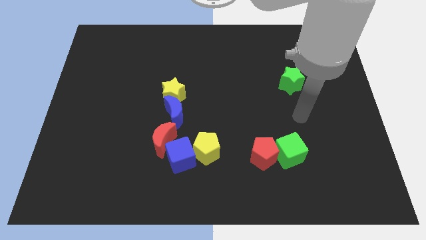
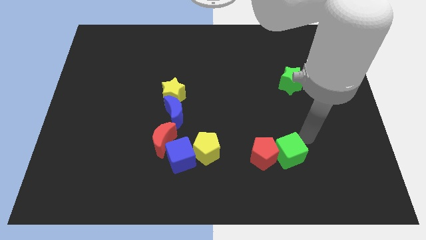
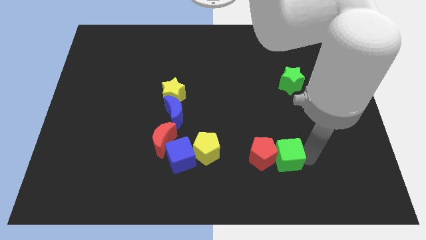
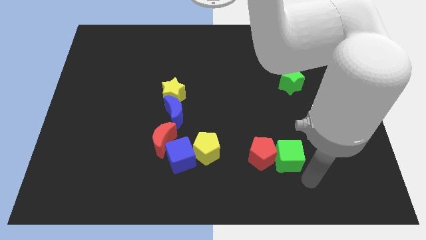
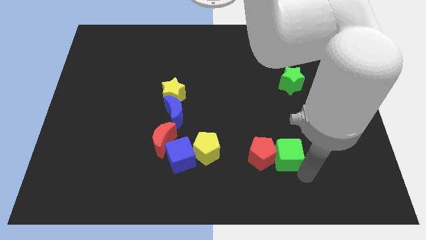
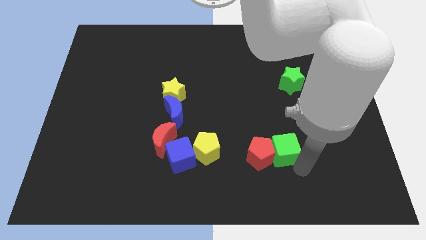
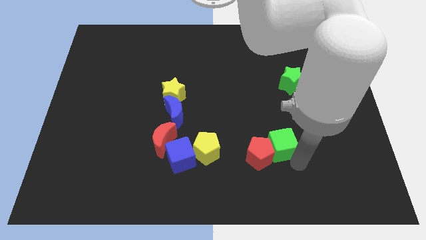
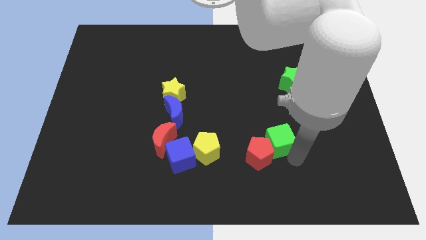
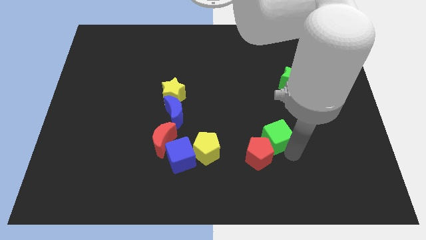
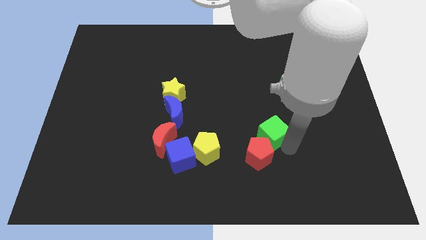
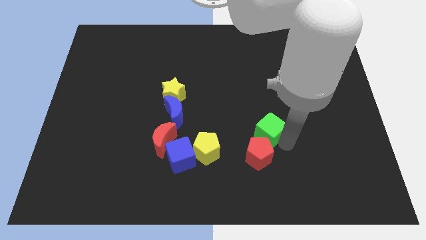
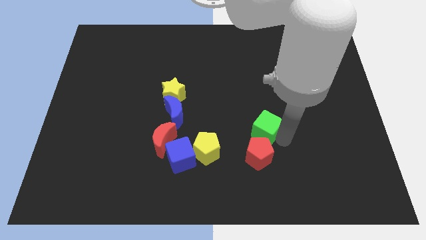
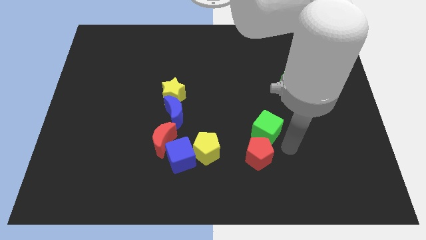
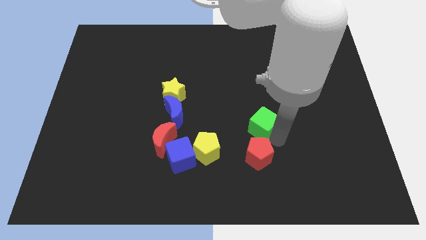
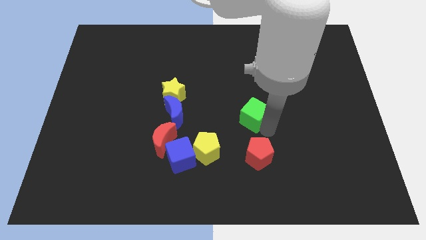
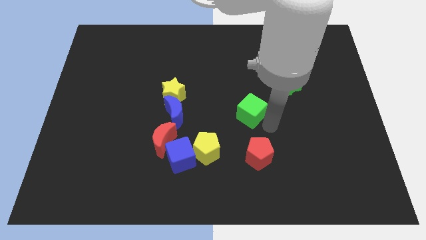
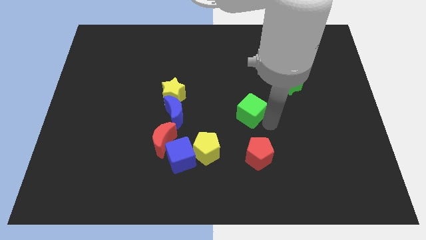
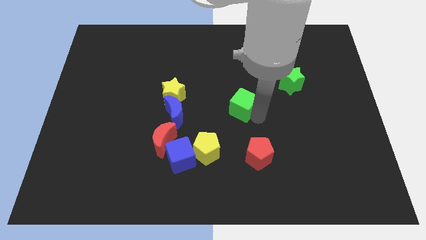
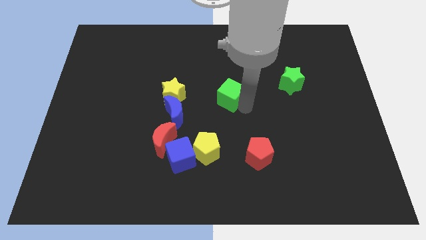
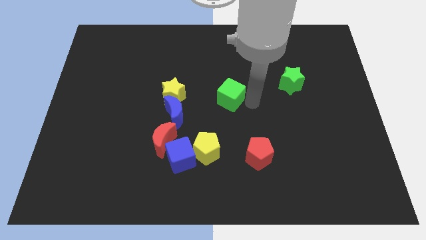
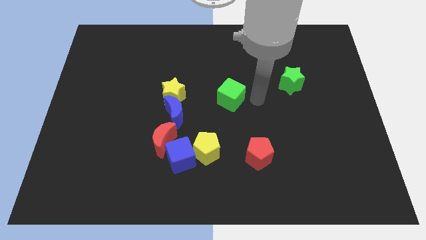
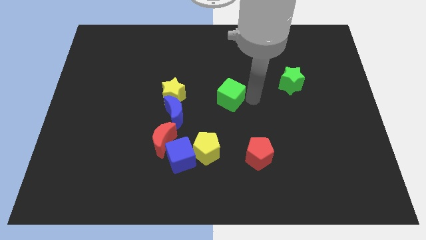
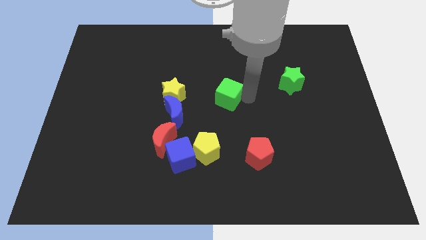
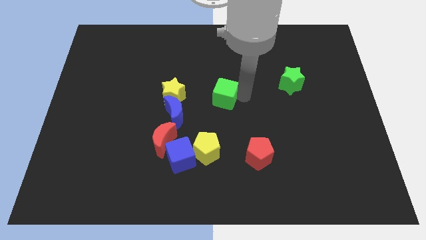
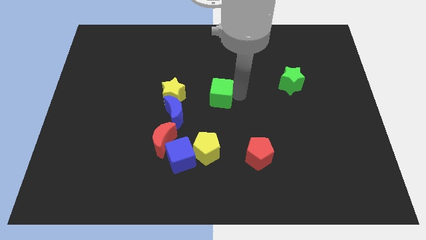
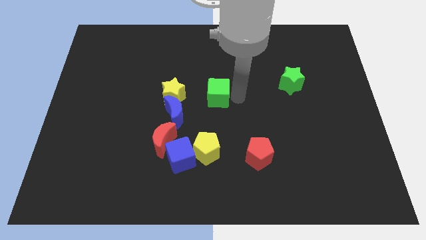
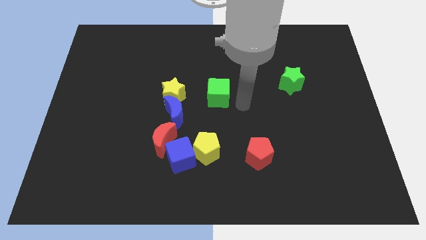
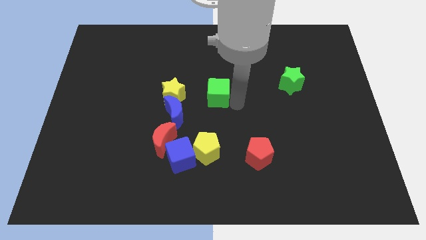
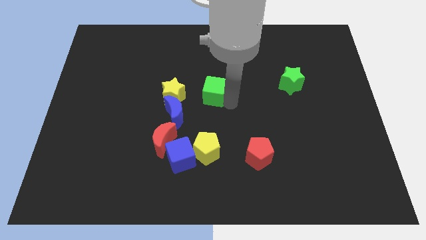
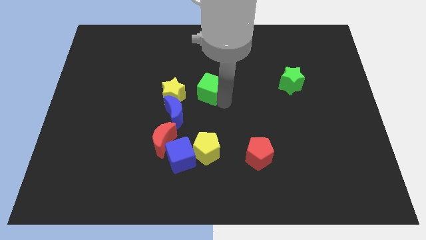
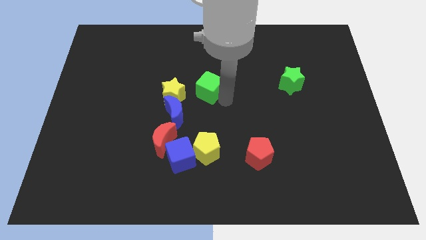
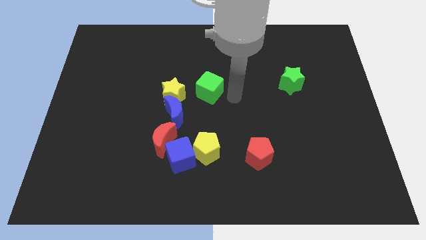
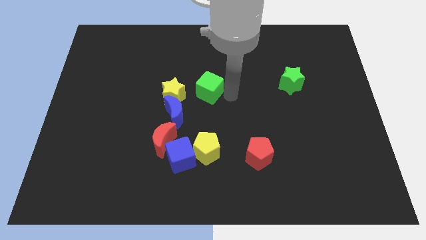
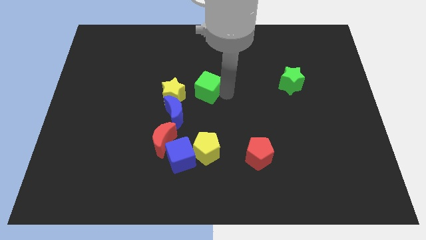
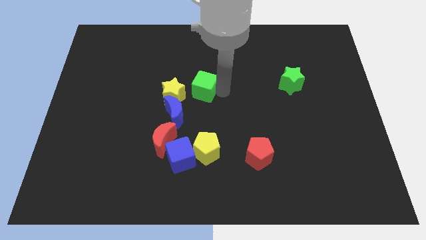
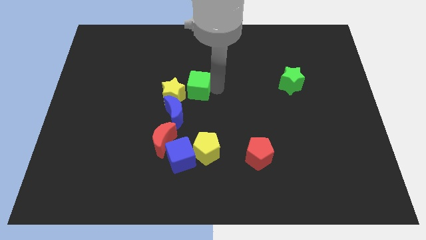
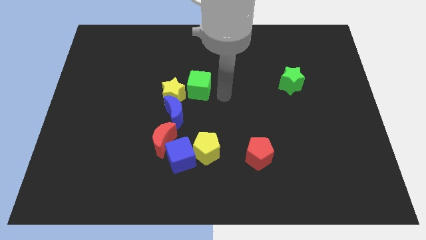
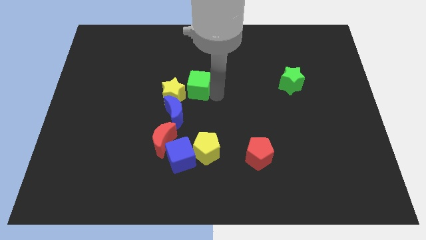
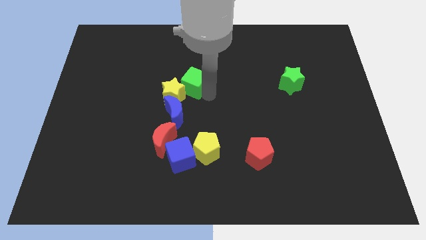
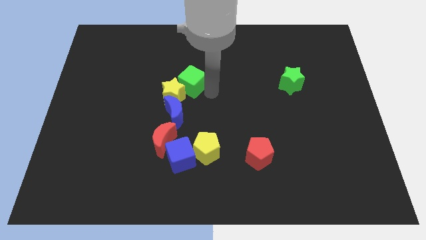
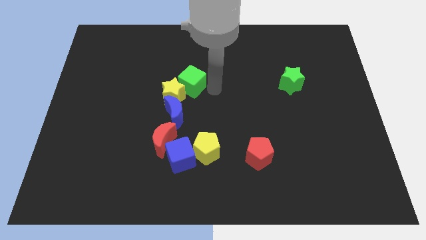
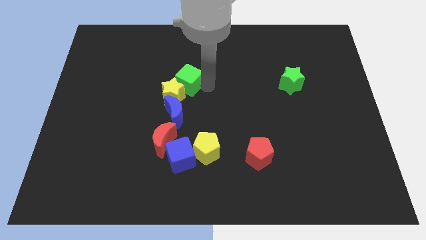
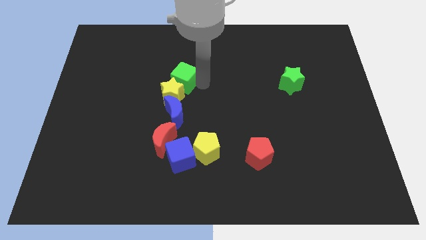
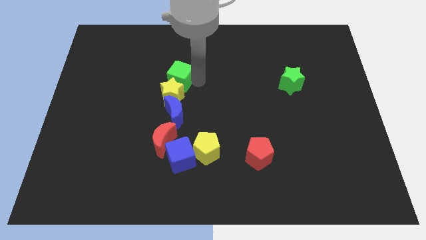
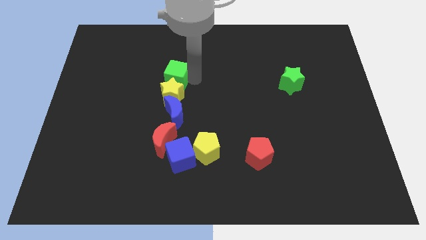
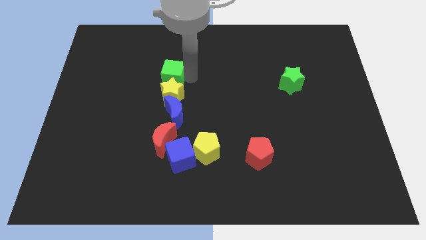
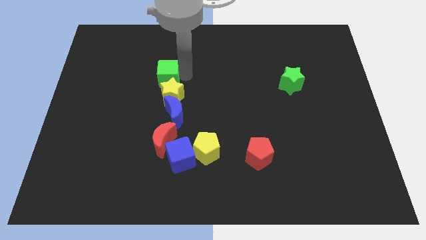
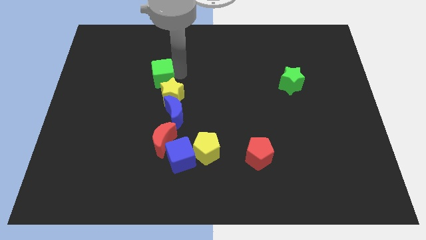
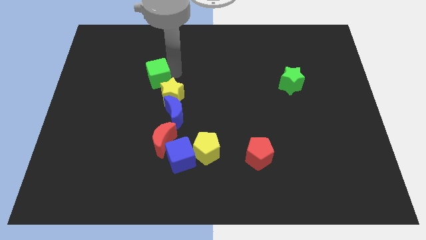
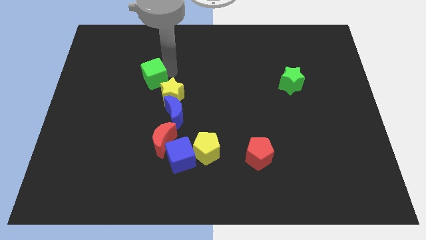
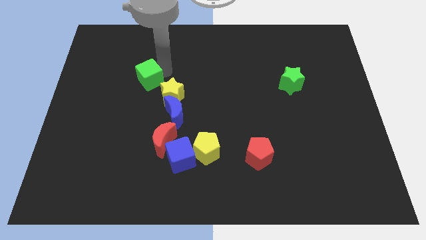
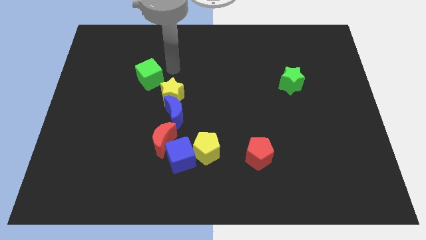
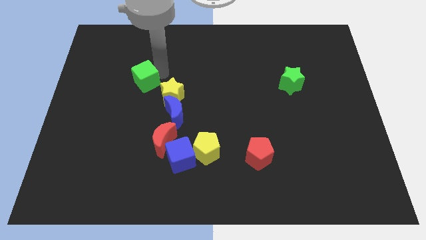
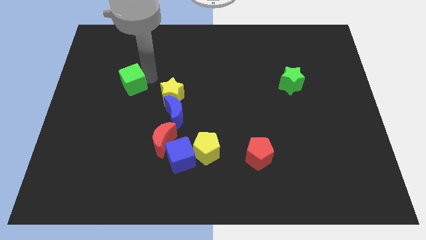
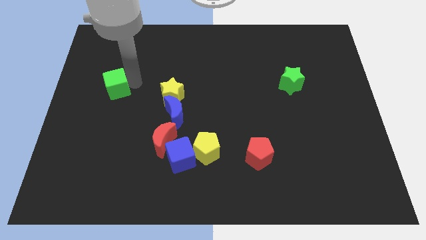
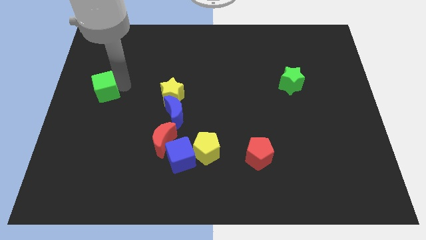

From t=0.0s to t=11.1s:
slide the green cube to the center left

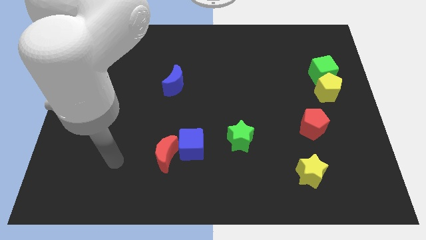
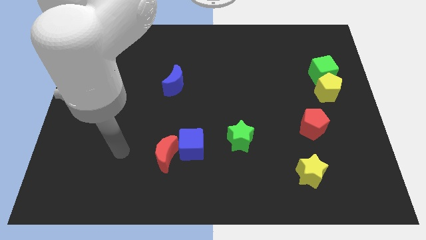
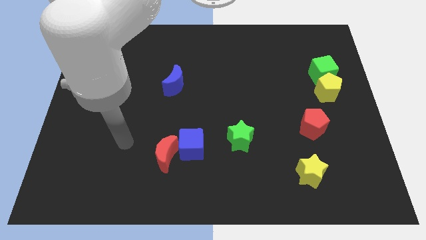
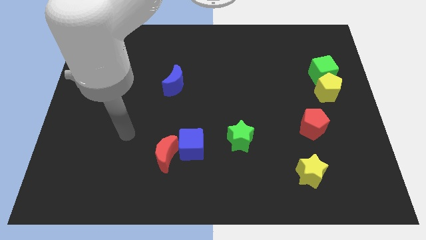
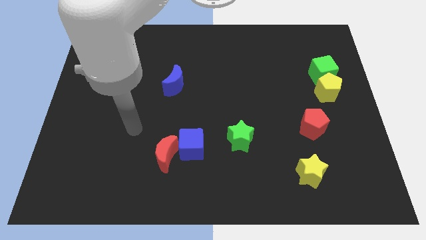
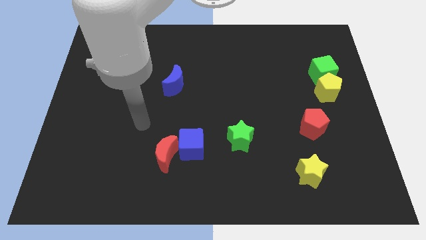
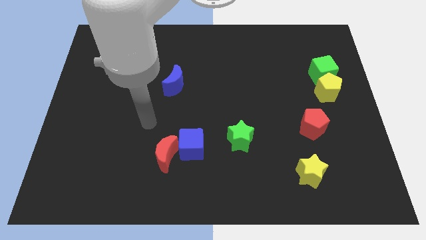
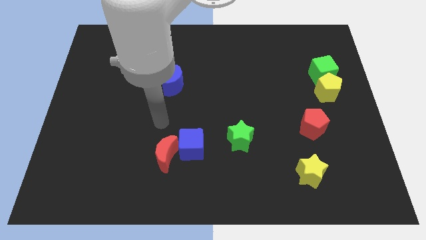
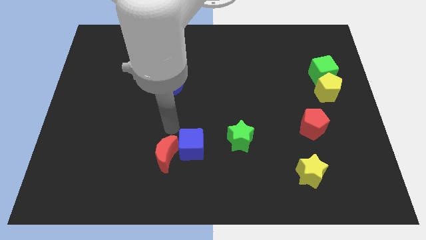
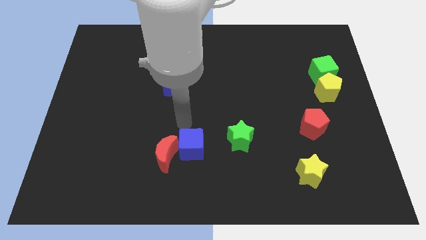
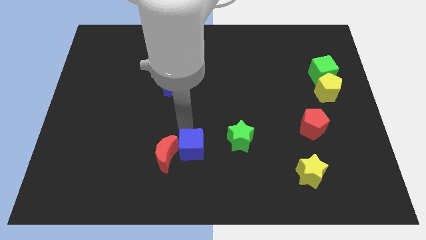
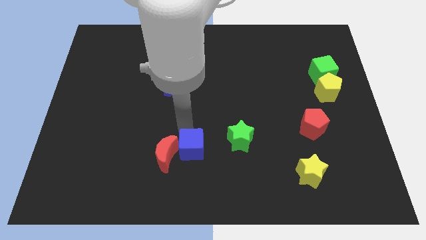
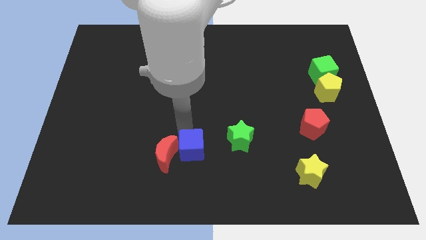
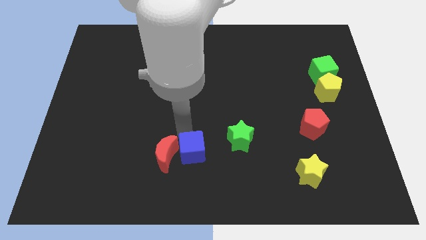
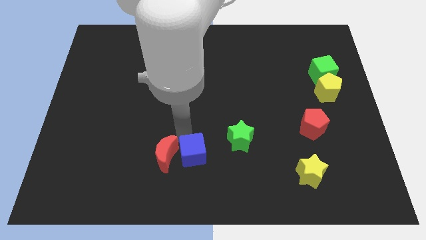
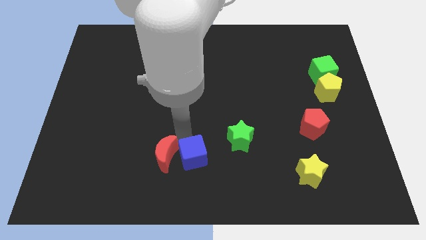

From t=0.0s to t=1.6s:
slide the blue cube to the bottom side
